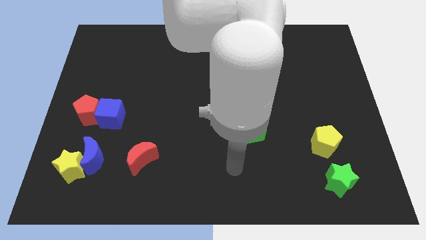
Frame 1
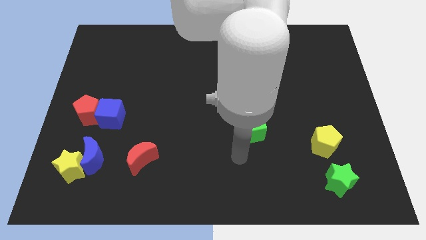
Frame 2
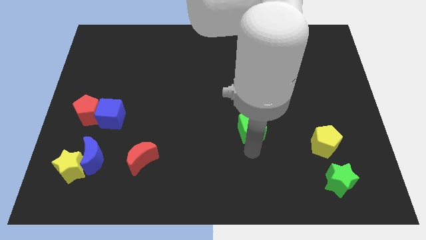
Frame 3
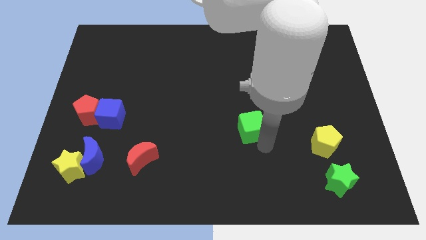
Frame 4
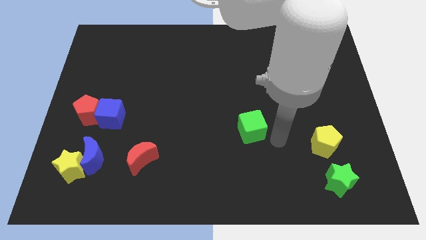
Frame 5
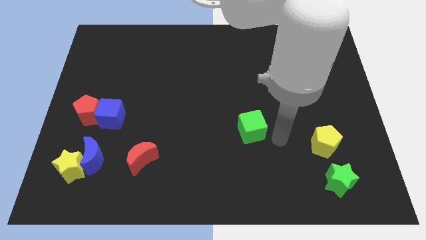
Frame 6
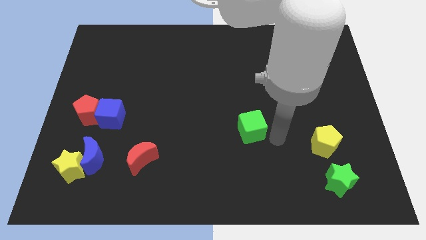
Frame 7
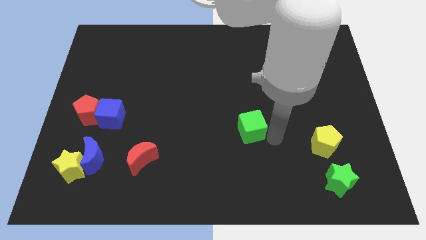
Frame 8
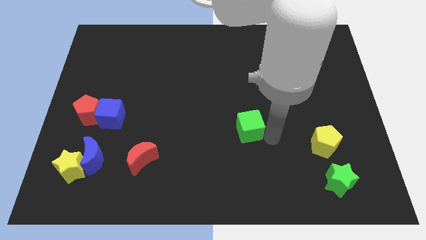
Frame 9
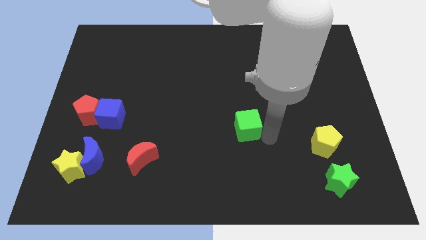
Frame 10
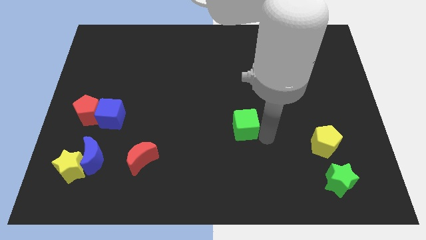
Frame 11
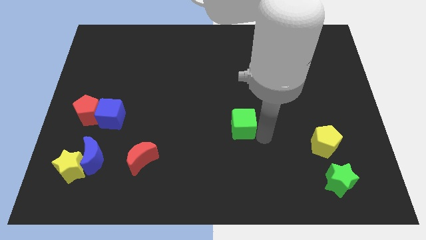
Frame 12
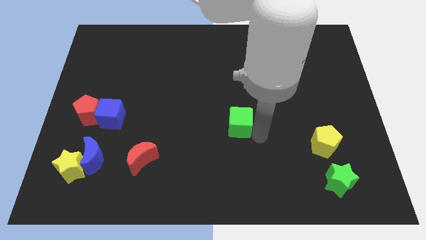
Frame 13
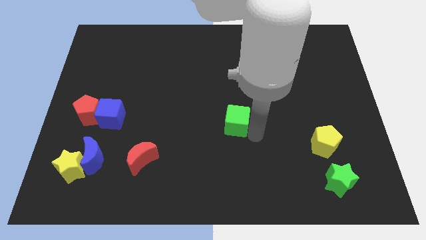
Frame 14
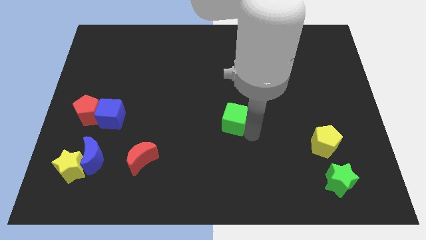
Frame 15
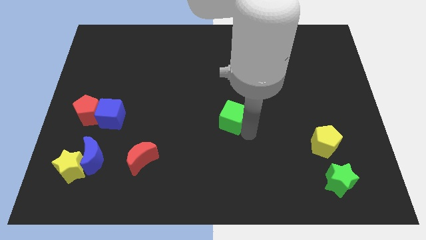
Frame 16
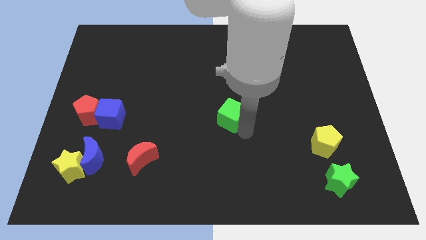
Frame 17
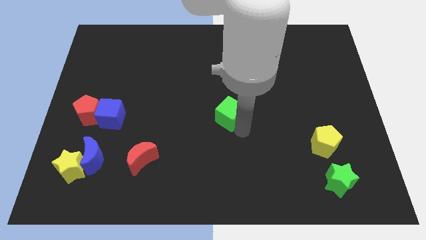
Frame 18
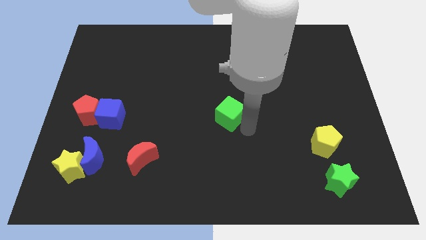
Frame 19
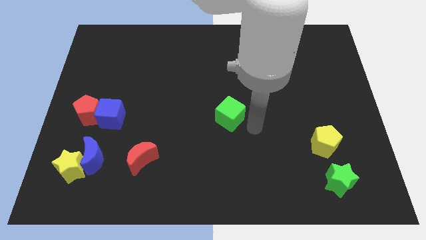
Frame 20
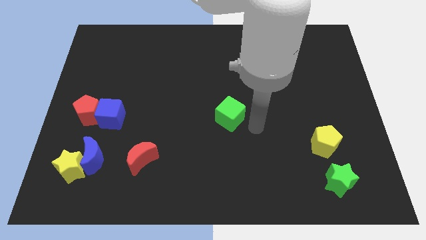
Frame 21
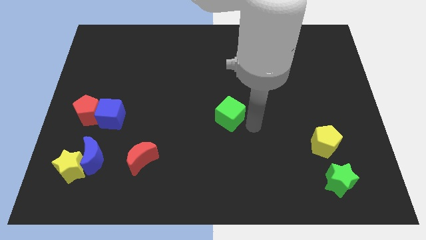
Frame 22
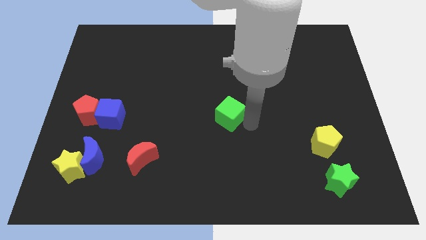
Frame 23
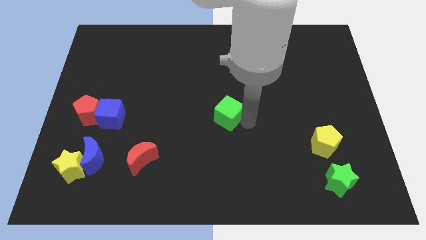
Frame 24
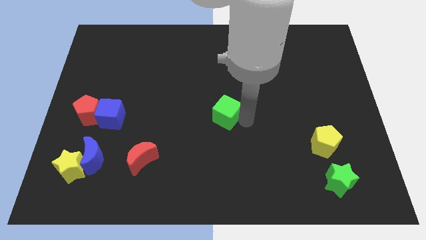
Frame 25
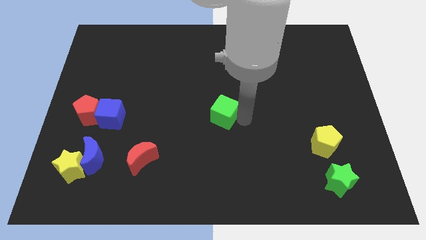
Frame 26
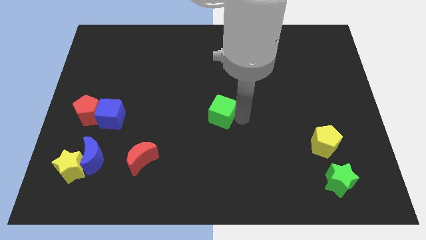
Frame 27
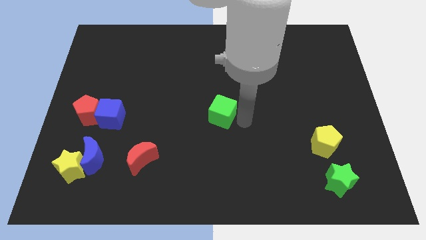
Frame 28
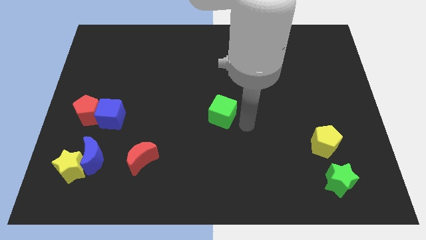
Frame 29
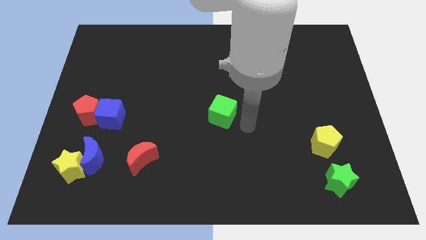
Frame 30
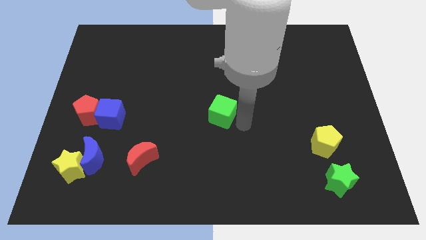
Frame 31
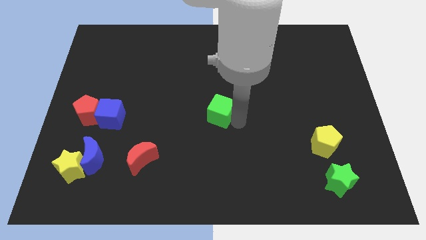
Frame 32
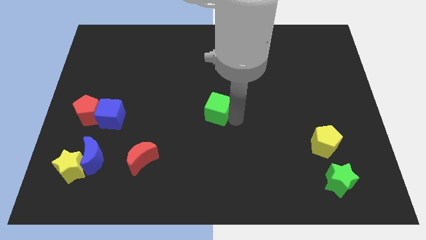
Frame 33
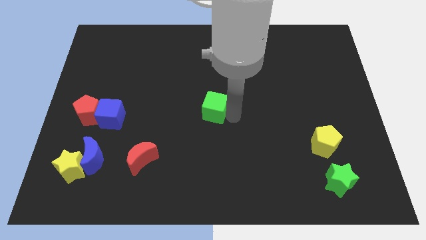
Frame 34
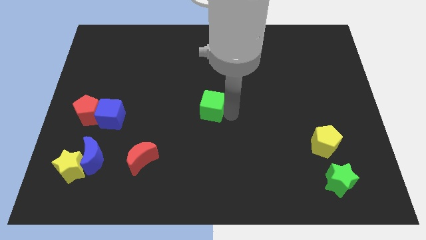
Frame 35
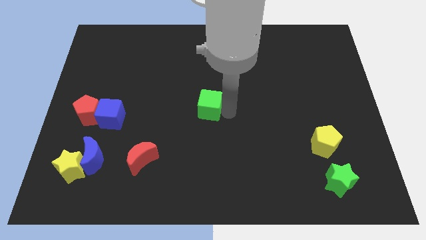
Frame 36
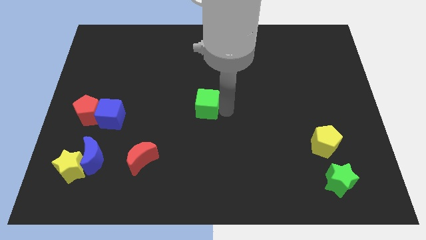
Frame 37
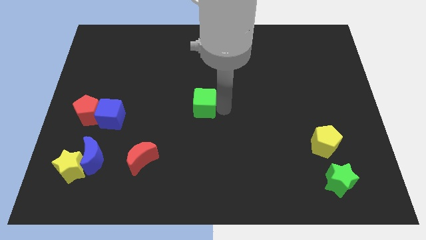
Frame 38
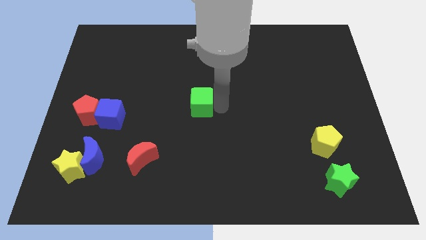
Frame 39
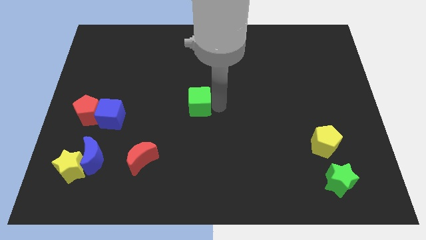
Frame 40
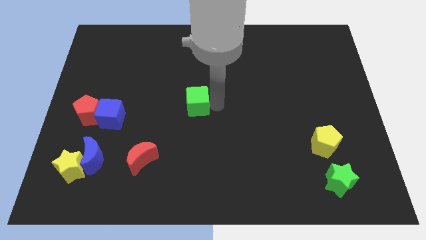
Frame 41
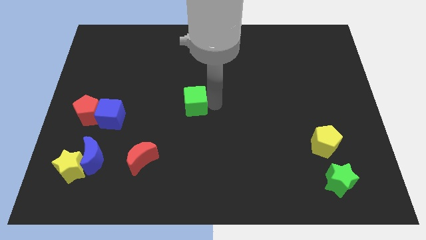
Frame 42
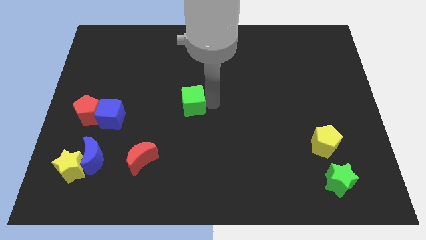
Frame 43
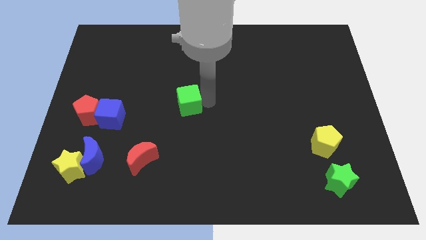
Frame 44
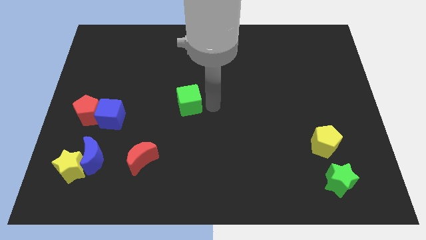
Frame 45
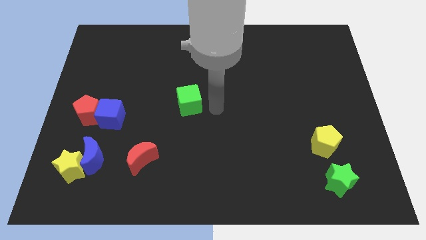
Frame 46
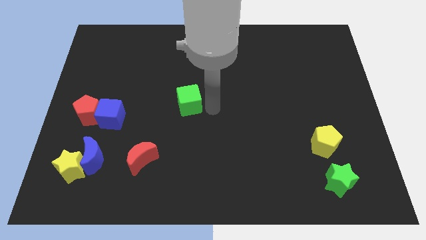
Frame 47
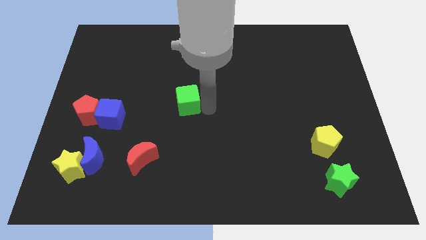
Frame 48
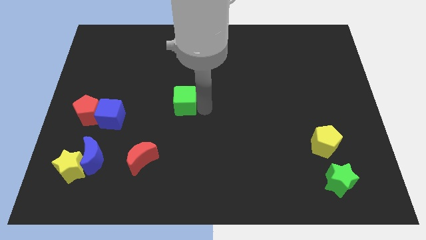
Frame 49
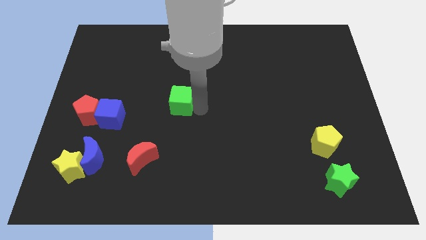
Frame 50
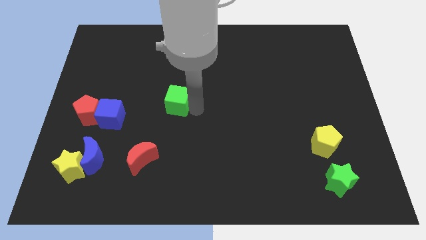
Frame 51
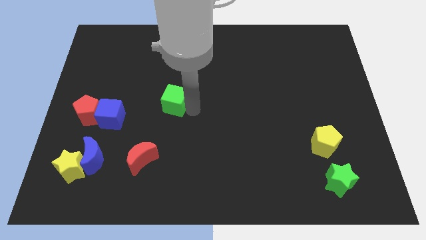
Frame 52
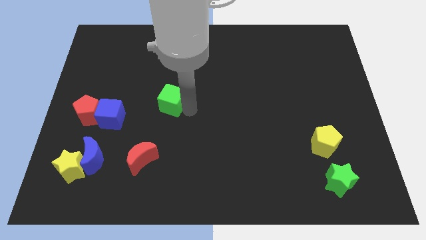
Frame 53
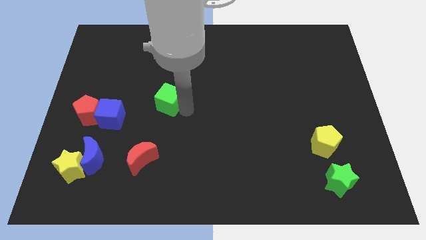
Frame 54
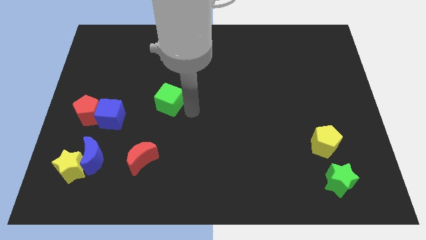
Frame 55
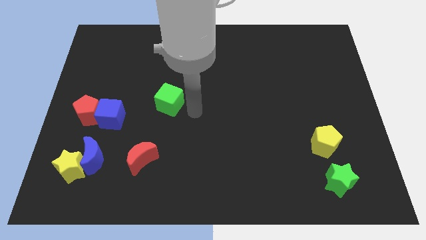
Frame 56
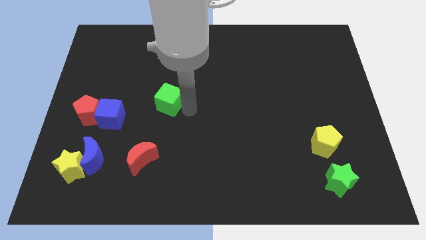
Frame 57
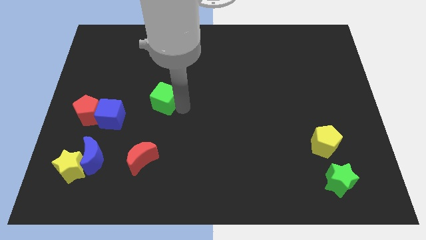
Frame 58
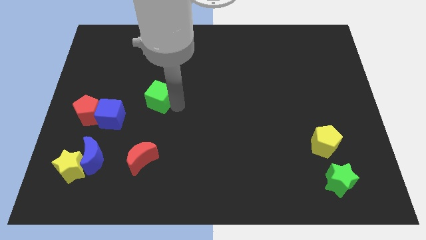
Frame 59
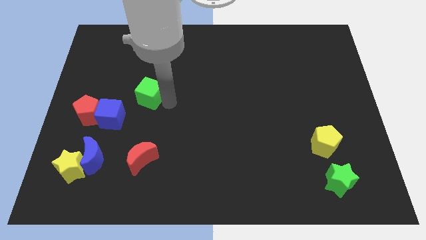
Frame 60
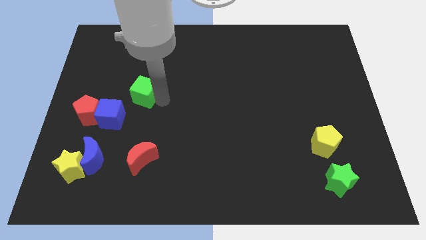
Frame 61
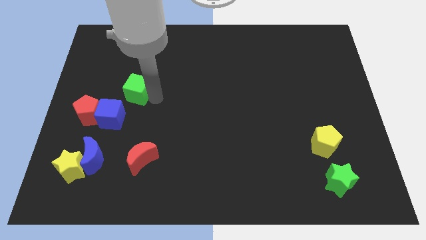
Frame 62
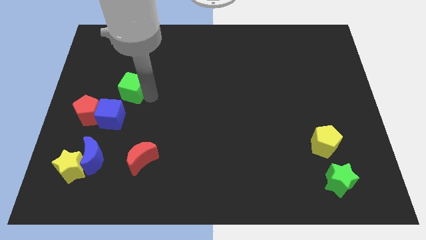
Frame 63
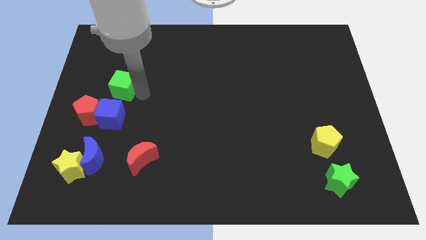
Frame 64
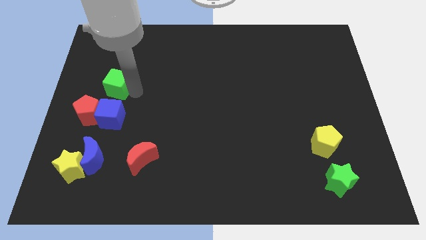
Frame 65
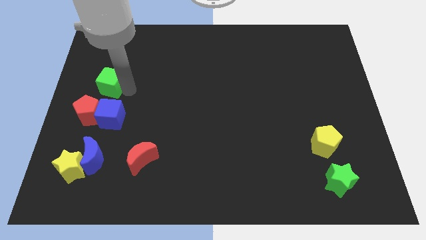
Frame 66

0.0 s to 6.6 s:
put the green cube to the top of the red pentagon

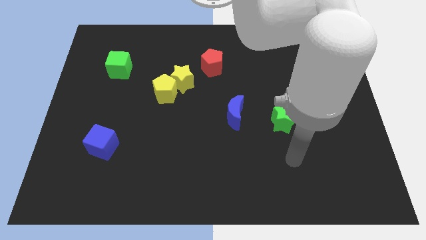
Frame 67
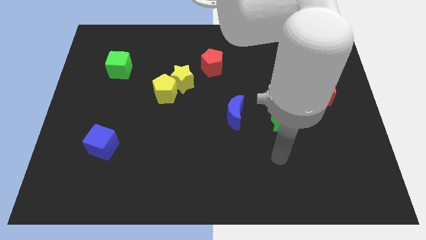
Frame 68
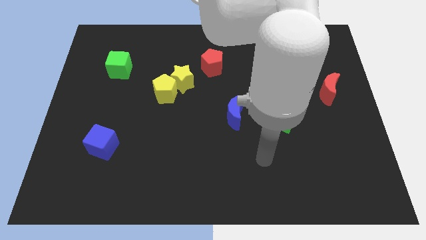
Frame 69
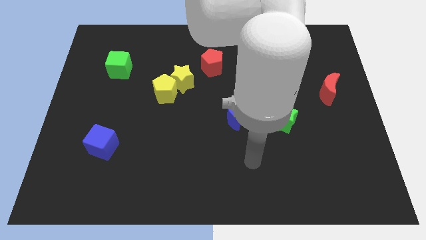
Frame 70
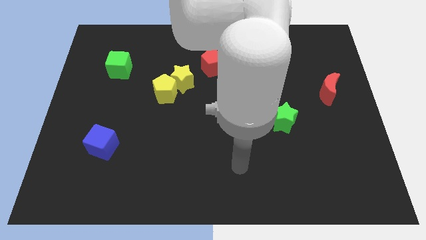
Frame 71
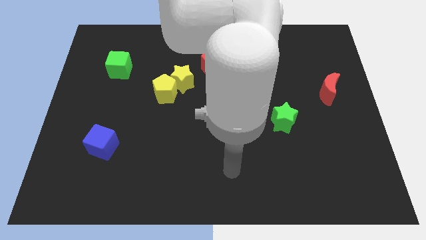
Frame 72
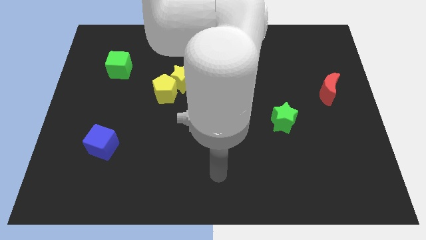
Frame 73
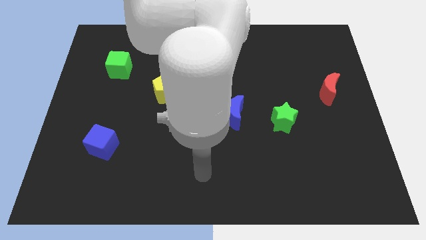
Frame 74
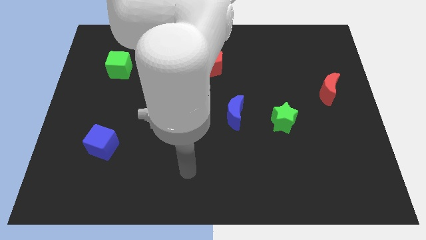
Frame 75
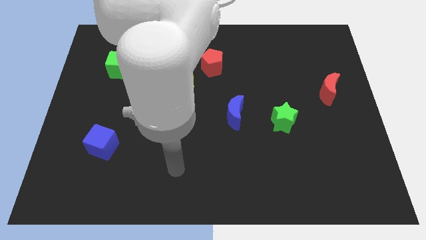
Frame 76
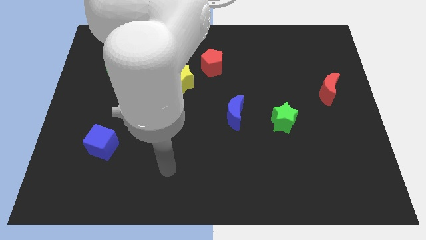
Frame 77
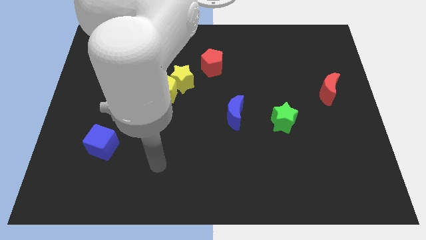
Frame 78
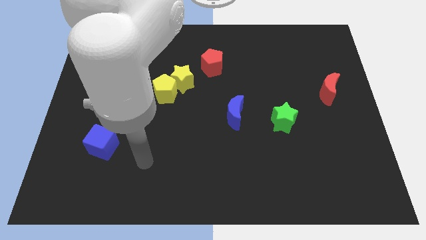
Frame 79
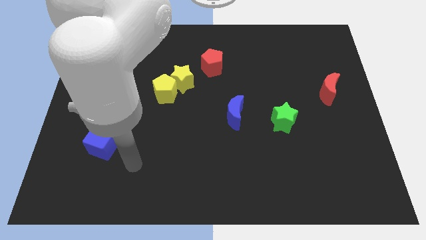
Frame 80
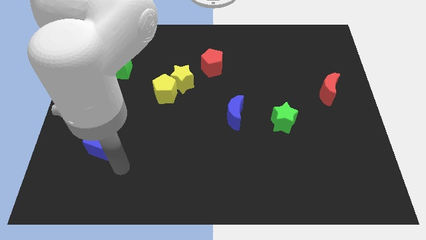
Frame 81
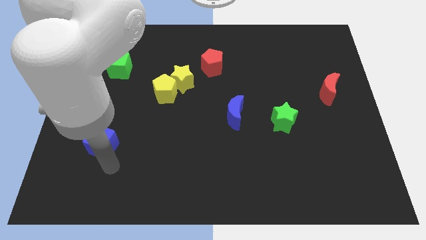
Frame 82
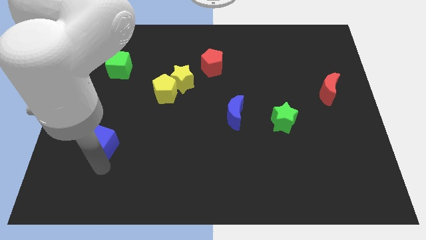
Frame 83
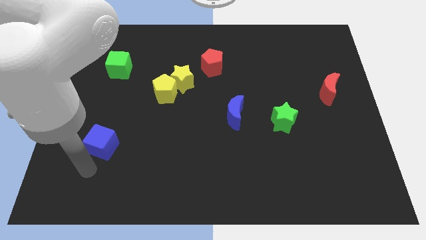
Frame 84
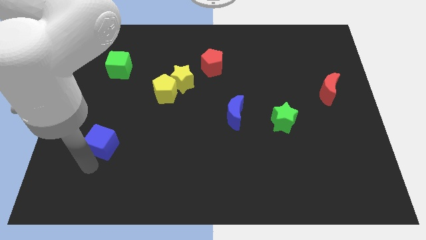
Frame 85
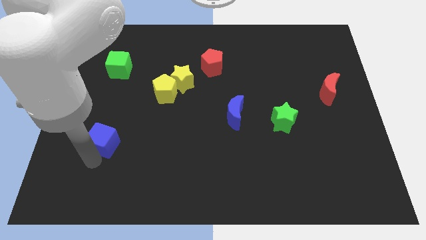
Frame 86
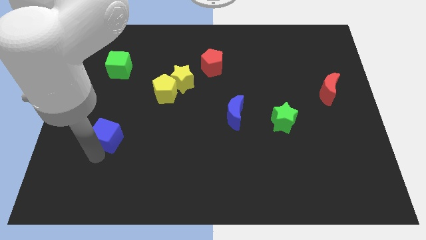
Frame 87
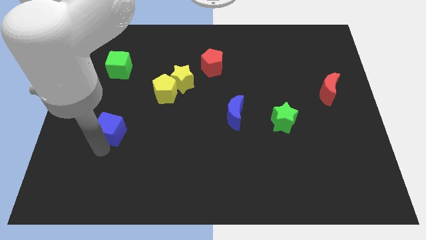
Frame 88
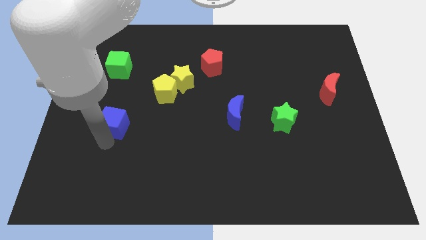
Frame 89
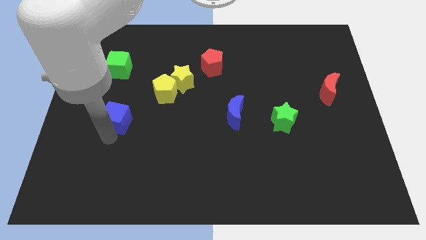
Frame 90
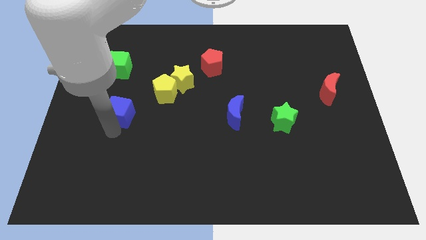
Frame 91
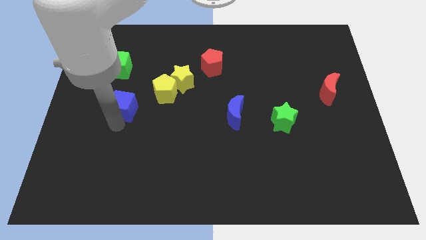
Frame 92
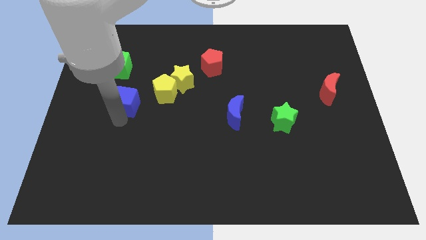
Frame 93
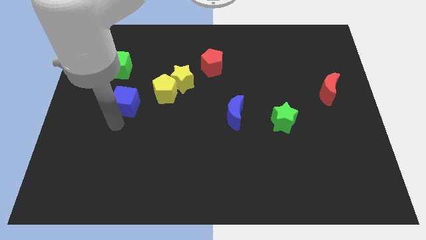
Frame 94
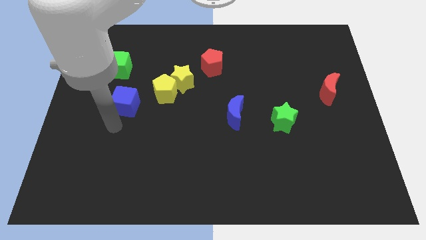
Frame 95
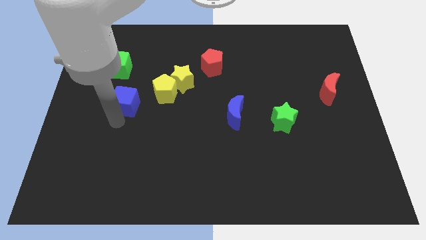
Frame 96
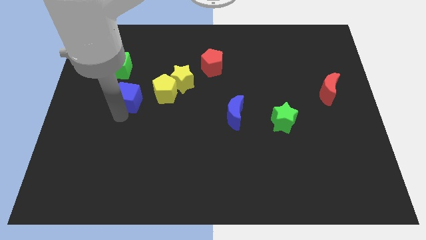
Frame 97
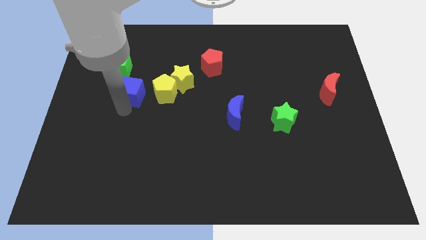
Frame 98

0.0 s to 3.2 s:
slide the blue cube to the left side of the yellow star
